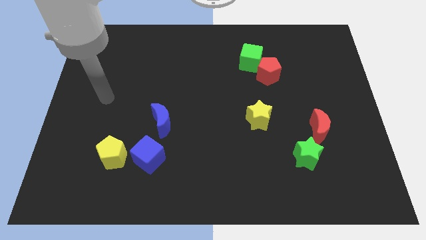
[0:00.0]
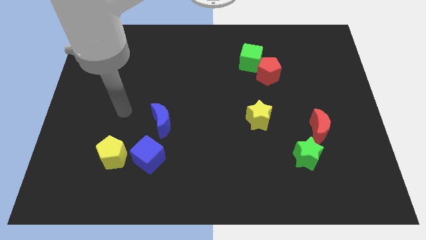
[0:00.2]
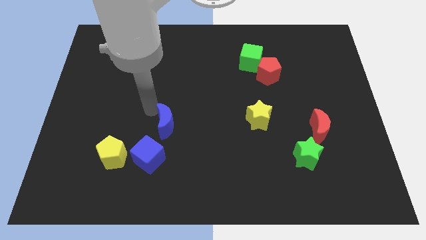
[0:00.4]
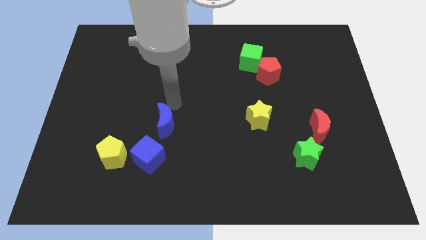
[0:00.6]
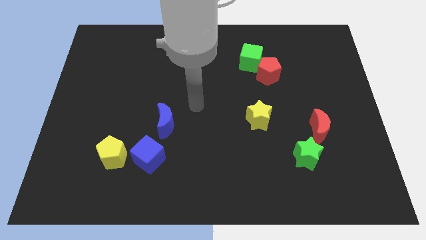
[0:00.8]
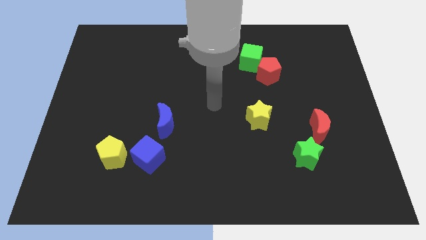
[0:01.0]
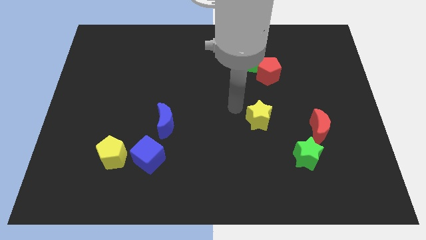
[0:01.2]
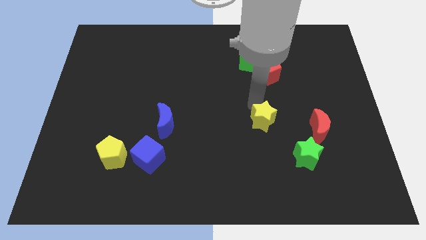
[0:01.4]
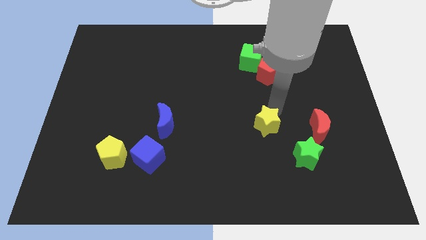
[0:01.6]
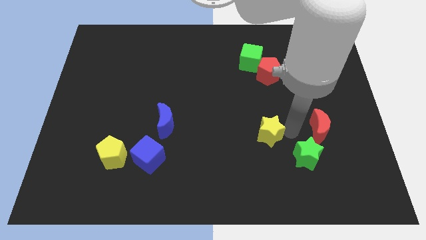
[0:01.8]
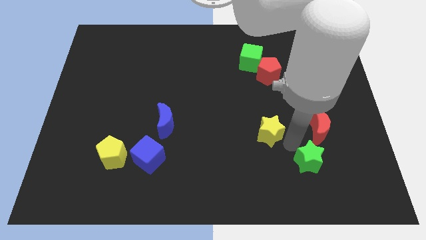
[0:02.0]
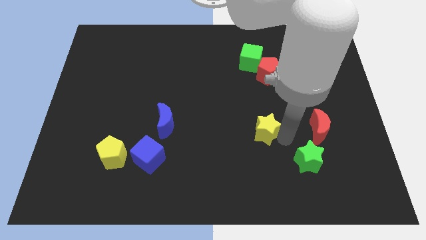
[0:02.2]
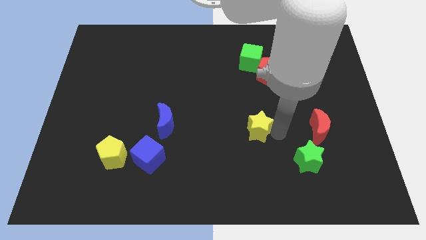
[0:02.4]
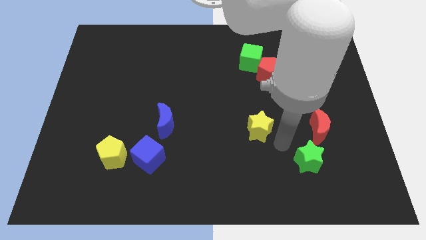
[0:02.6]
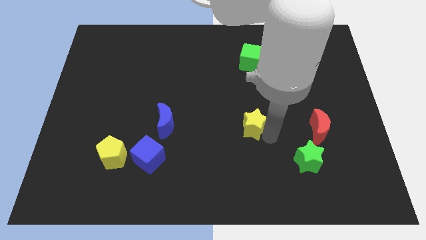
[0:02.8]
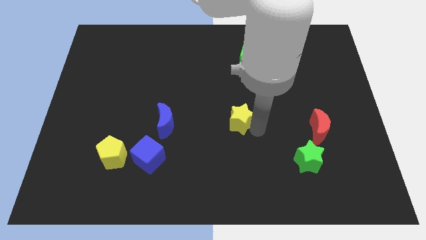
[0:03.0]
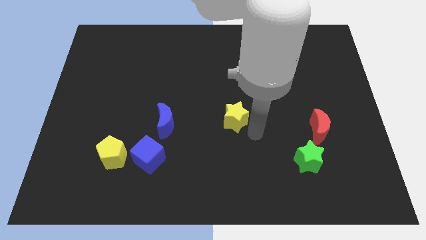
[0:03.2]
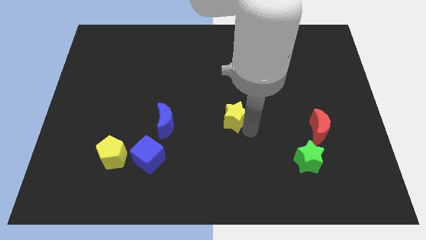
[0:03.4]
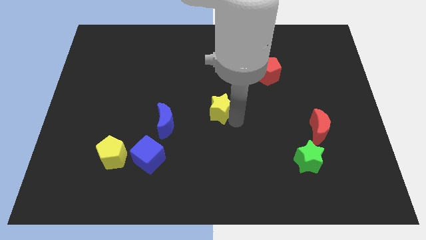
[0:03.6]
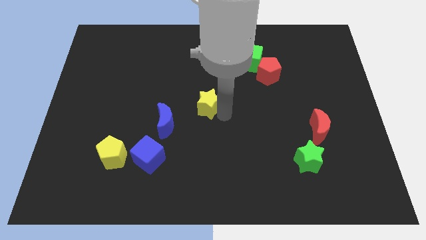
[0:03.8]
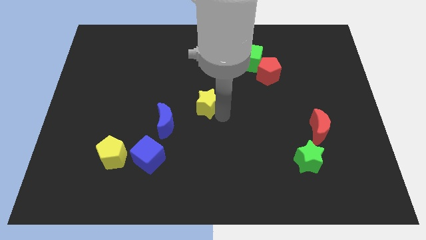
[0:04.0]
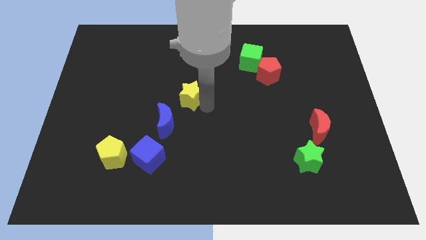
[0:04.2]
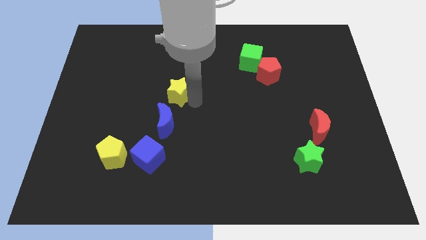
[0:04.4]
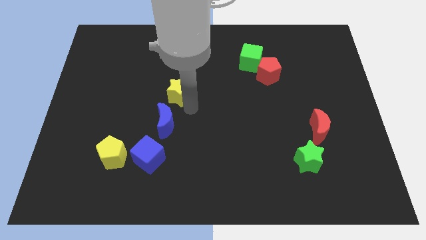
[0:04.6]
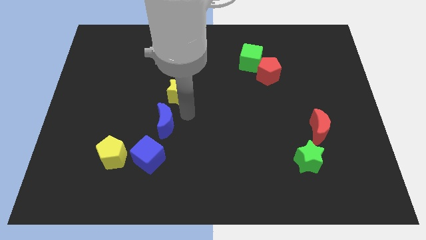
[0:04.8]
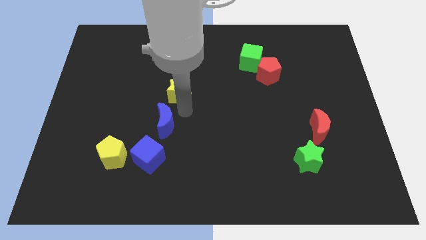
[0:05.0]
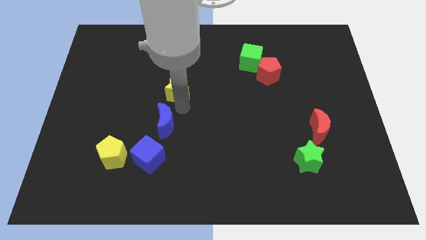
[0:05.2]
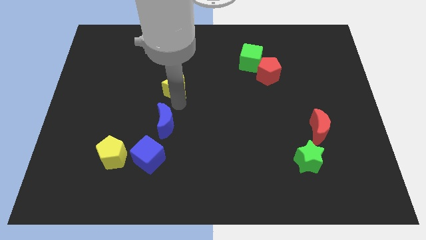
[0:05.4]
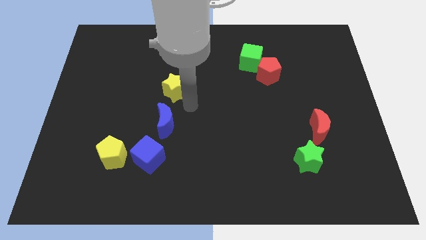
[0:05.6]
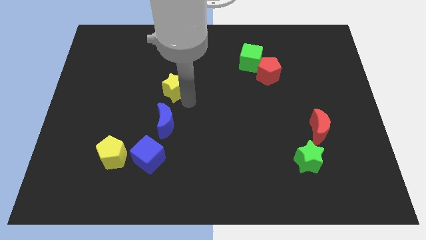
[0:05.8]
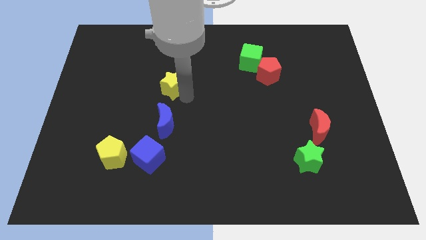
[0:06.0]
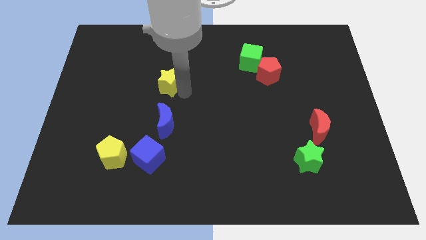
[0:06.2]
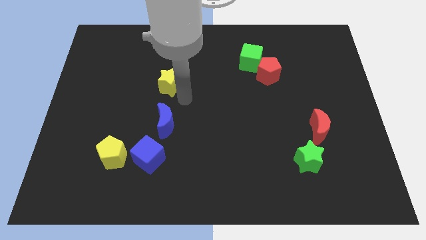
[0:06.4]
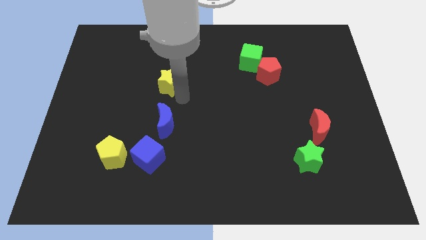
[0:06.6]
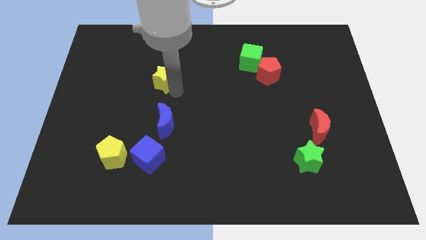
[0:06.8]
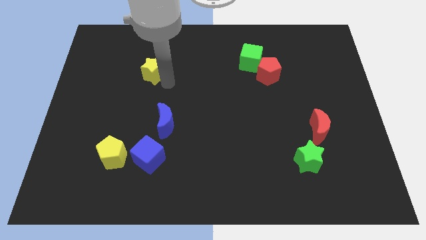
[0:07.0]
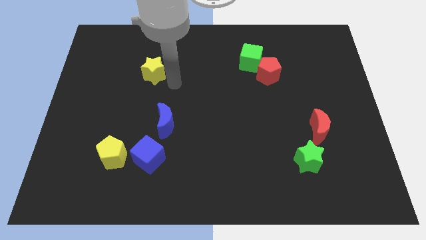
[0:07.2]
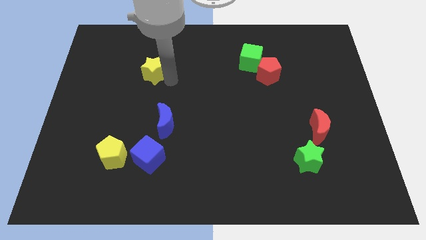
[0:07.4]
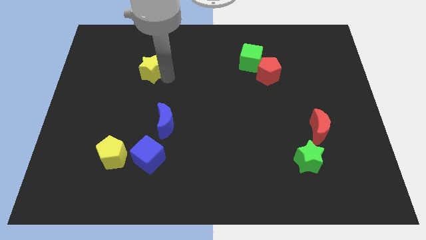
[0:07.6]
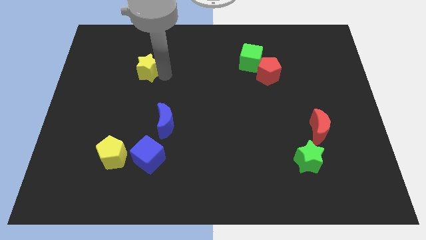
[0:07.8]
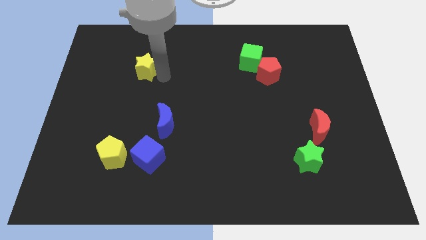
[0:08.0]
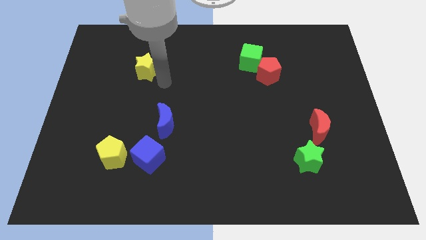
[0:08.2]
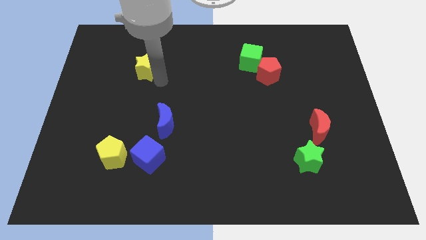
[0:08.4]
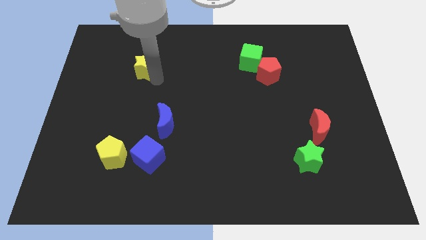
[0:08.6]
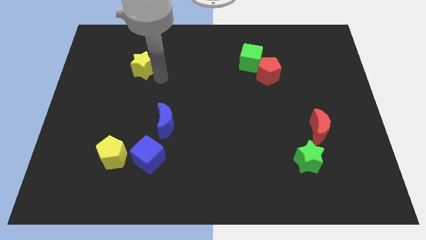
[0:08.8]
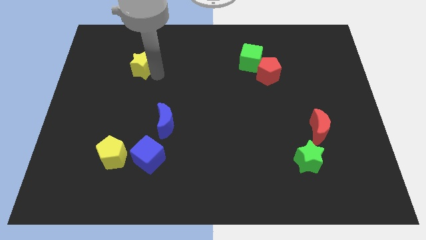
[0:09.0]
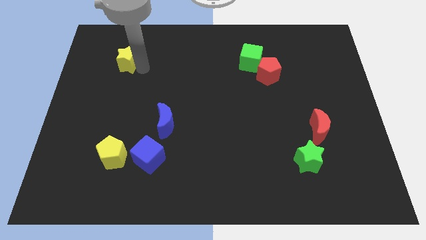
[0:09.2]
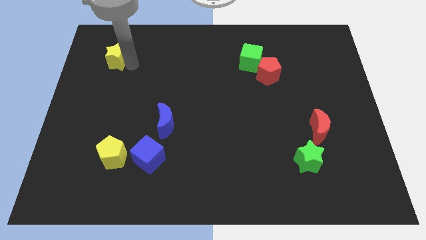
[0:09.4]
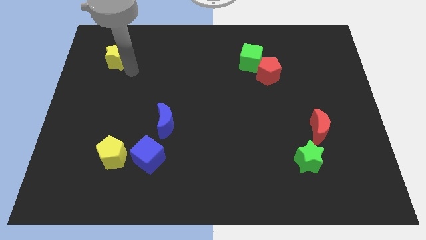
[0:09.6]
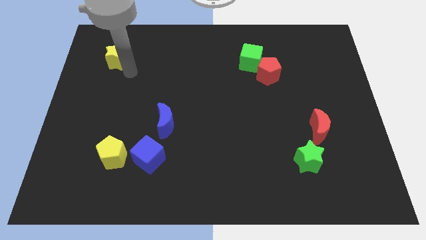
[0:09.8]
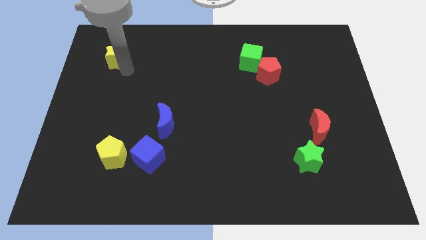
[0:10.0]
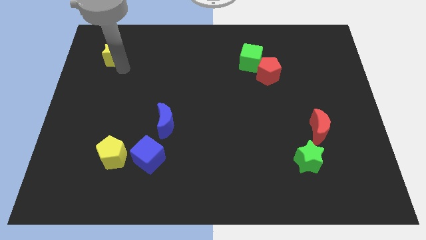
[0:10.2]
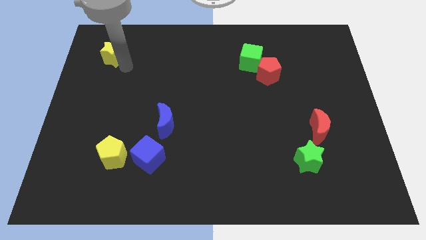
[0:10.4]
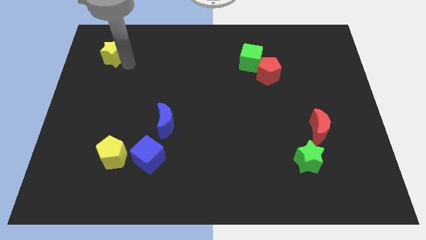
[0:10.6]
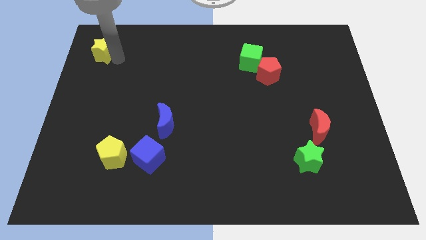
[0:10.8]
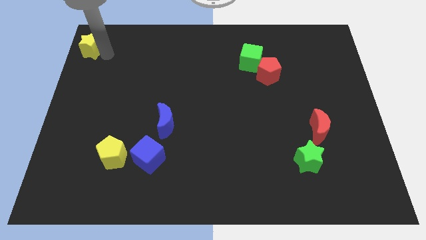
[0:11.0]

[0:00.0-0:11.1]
slide the yellow star to the top left
